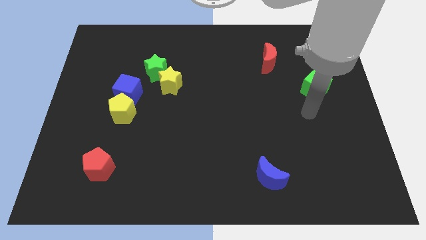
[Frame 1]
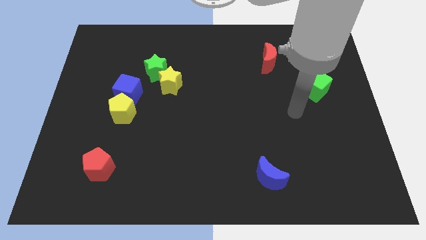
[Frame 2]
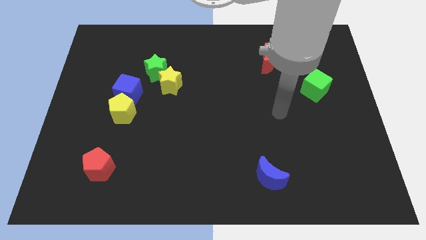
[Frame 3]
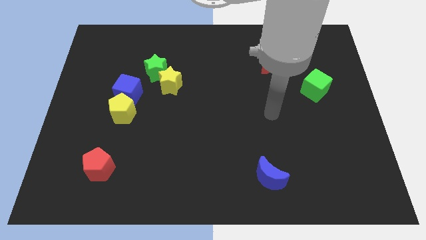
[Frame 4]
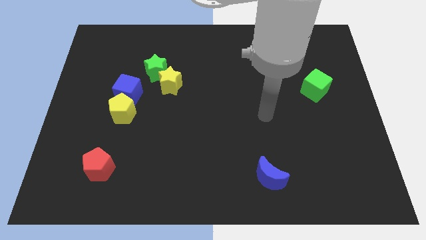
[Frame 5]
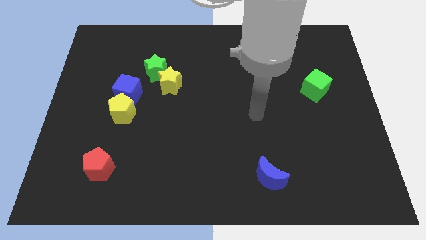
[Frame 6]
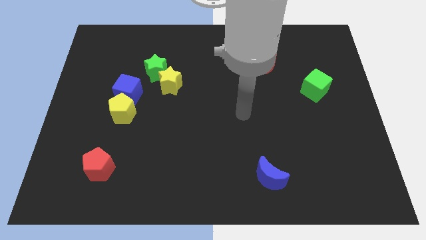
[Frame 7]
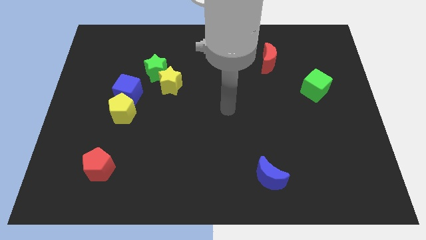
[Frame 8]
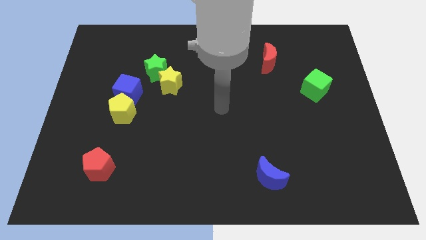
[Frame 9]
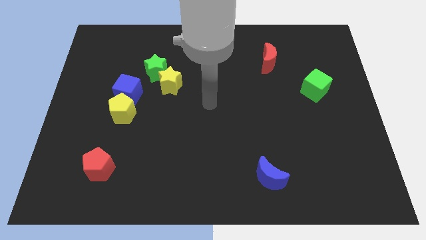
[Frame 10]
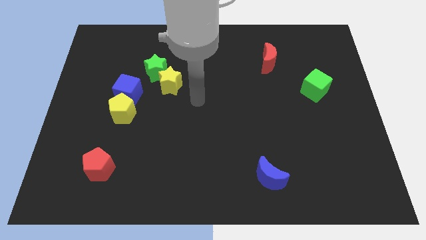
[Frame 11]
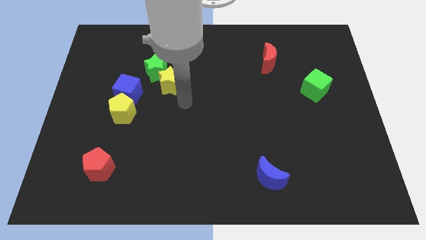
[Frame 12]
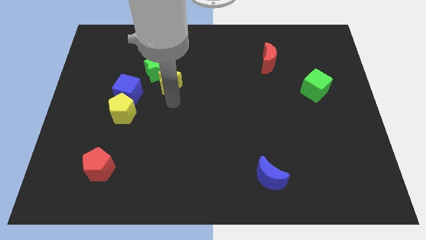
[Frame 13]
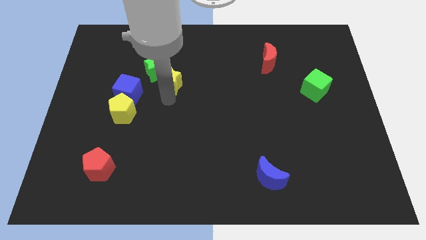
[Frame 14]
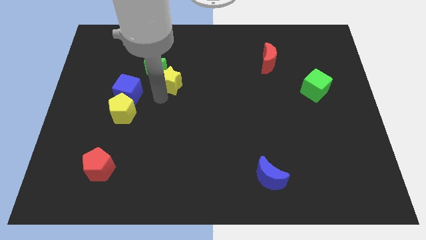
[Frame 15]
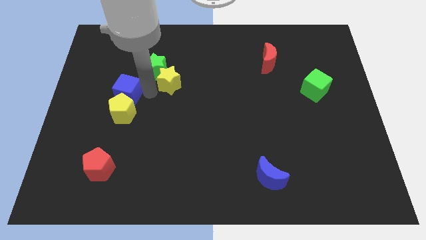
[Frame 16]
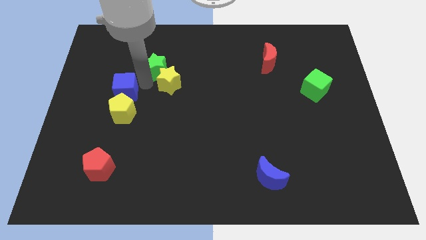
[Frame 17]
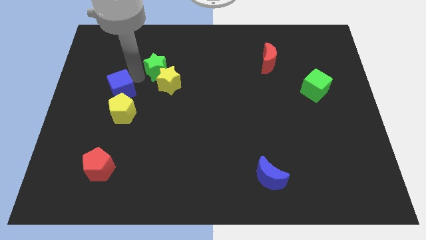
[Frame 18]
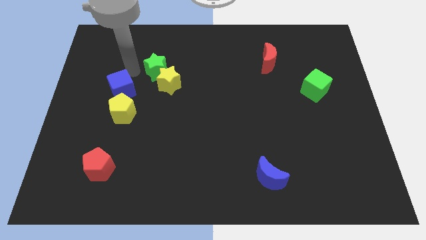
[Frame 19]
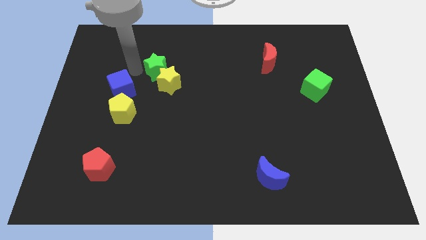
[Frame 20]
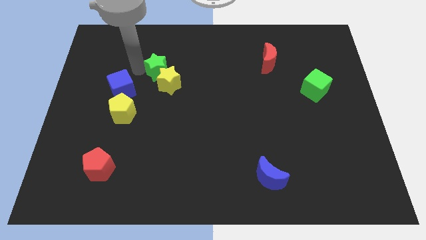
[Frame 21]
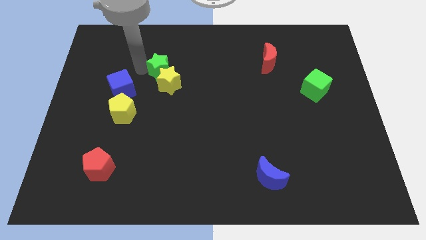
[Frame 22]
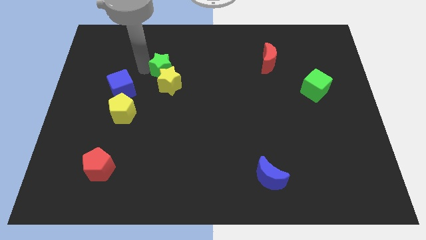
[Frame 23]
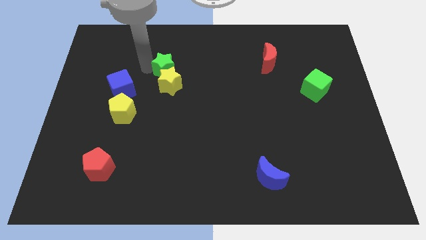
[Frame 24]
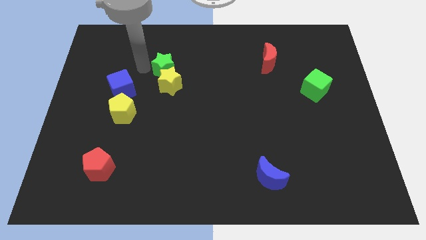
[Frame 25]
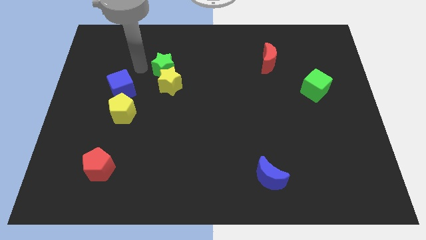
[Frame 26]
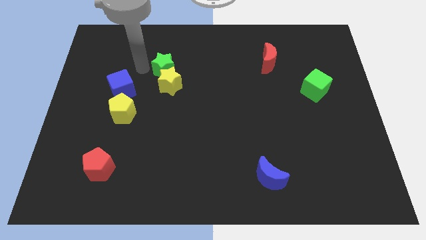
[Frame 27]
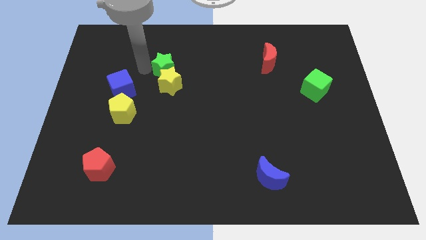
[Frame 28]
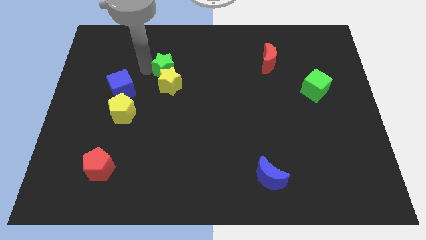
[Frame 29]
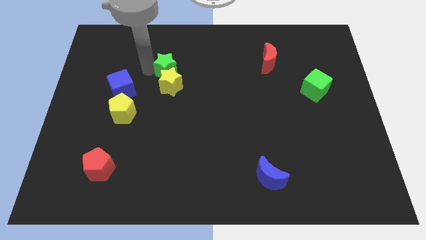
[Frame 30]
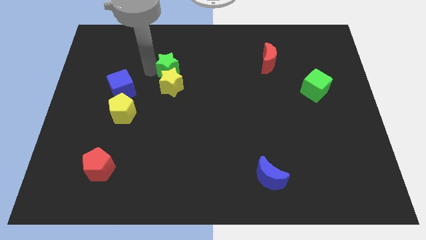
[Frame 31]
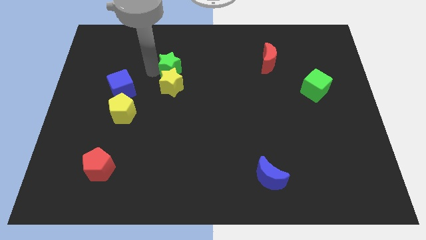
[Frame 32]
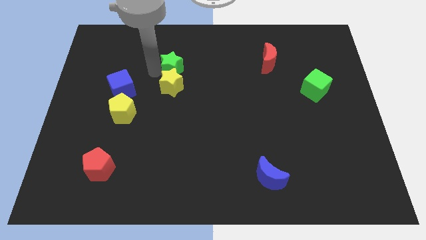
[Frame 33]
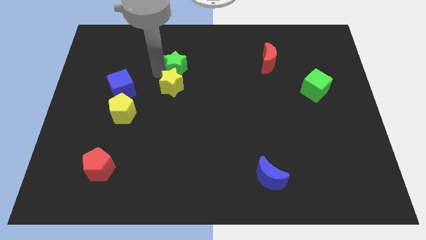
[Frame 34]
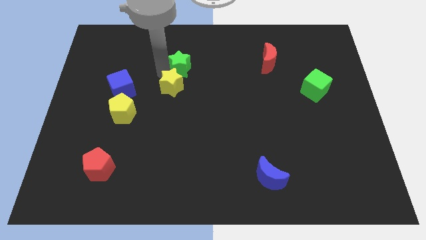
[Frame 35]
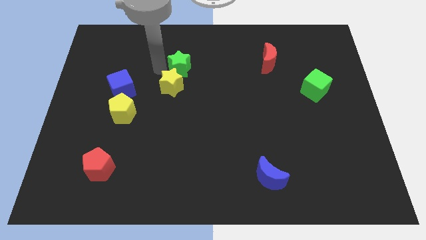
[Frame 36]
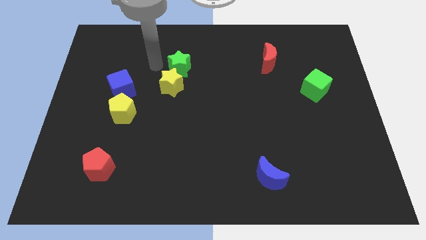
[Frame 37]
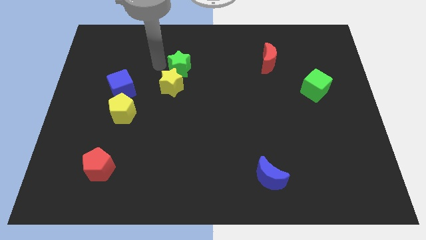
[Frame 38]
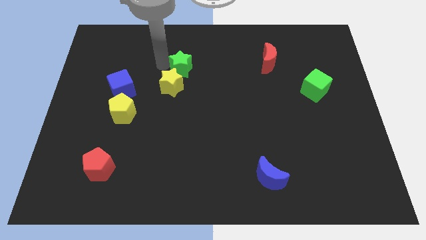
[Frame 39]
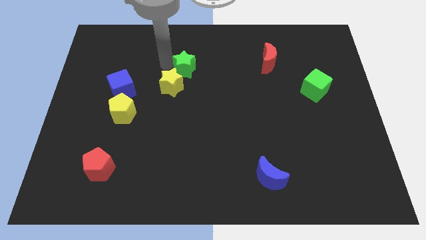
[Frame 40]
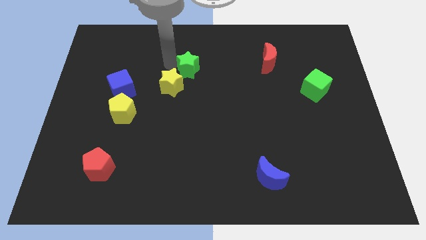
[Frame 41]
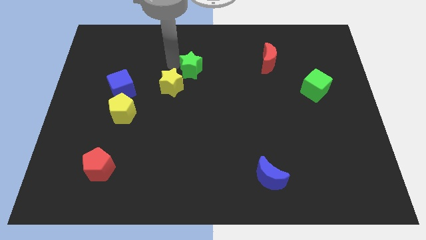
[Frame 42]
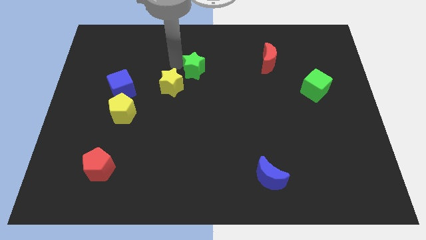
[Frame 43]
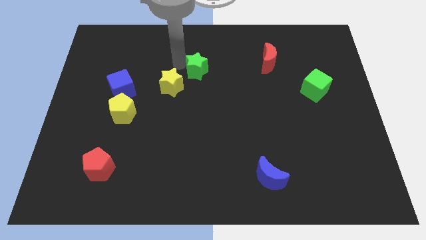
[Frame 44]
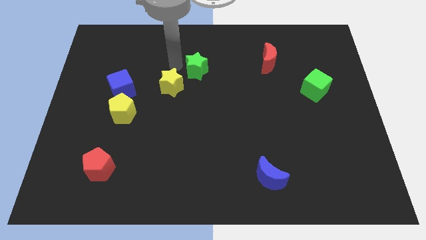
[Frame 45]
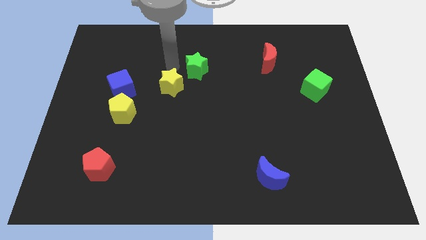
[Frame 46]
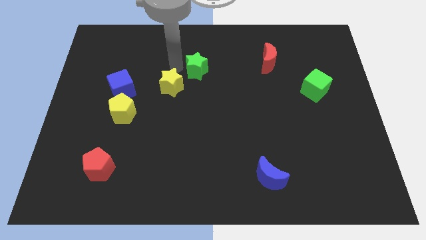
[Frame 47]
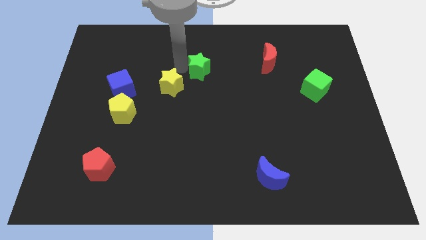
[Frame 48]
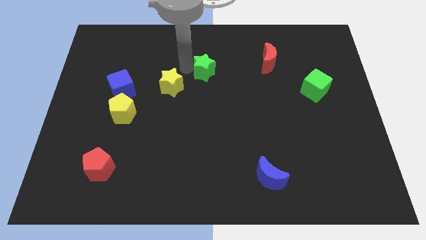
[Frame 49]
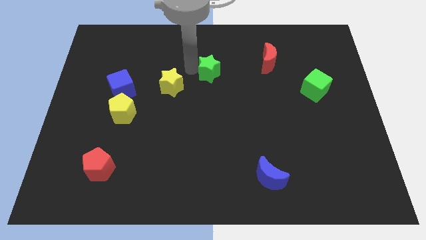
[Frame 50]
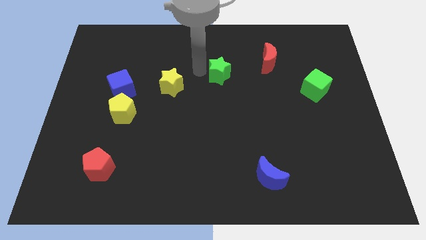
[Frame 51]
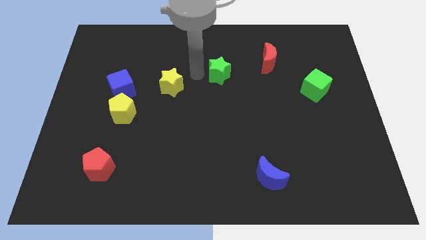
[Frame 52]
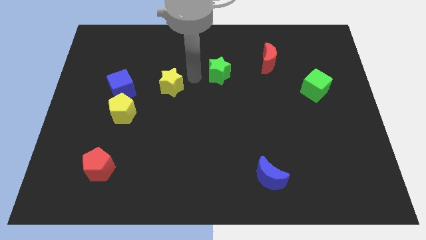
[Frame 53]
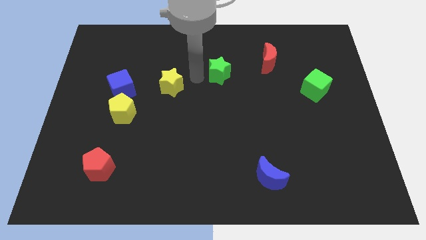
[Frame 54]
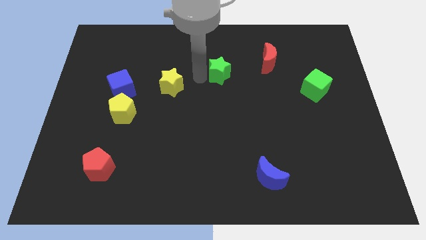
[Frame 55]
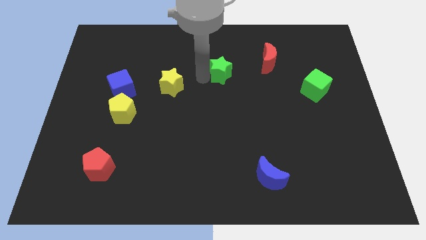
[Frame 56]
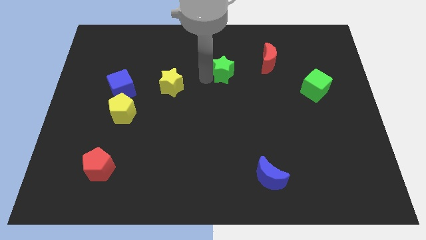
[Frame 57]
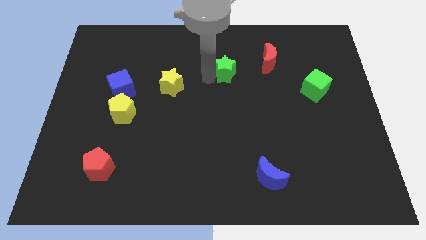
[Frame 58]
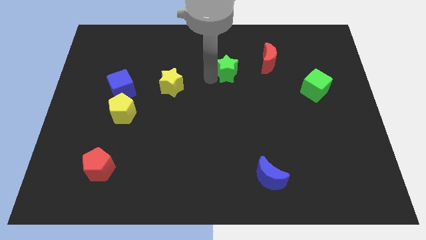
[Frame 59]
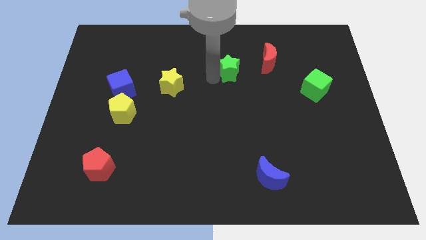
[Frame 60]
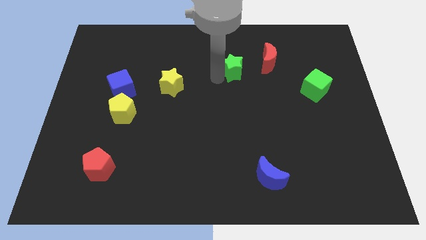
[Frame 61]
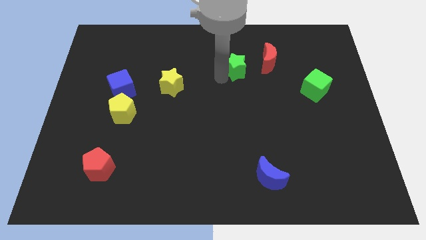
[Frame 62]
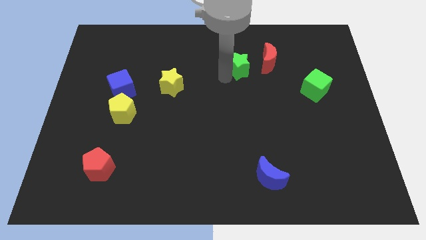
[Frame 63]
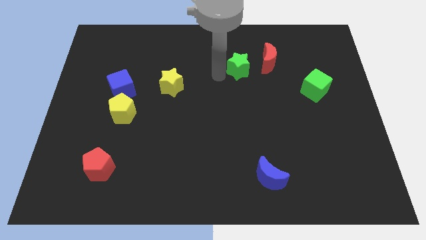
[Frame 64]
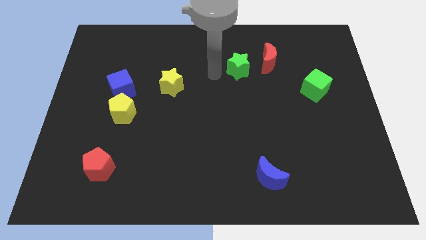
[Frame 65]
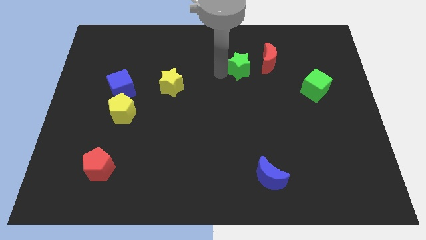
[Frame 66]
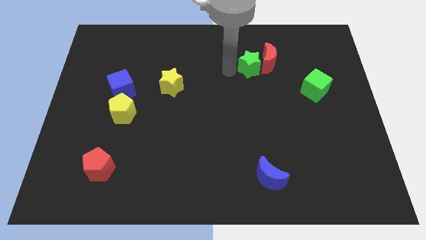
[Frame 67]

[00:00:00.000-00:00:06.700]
push the green star next to the red moon

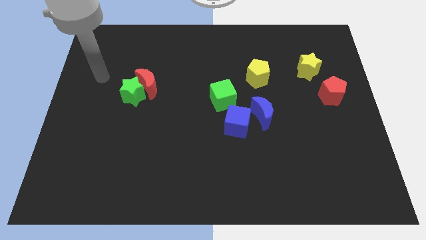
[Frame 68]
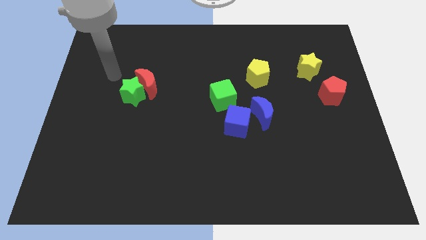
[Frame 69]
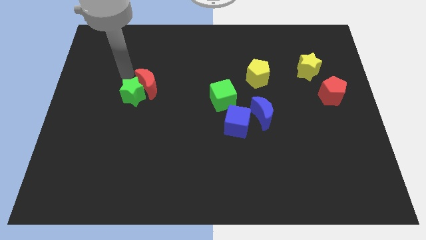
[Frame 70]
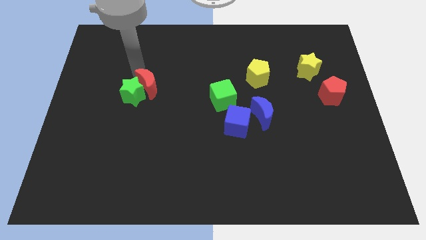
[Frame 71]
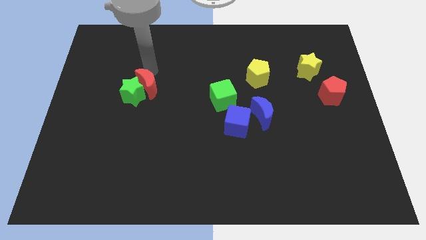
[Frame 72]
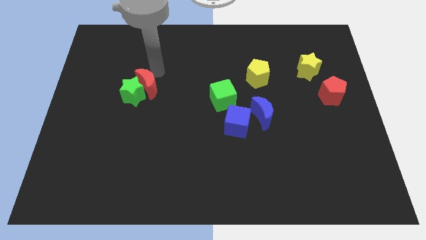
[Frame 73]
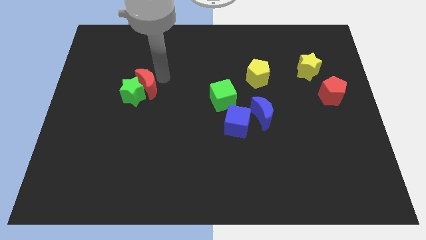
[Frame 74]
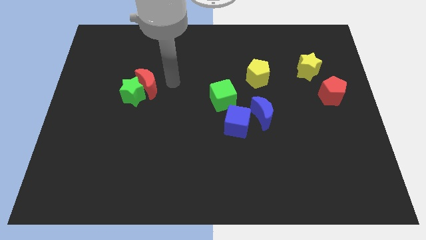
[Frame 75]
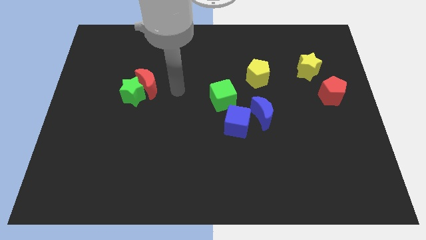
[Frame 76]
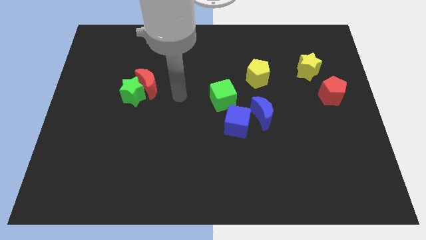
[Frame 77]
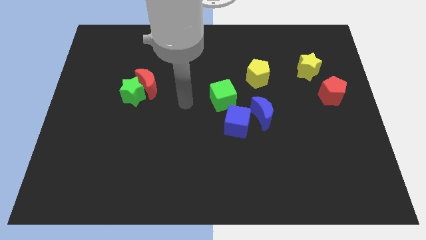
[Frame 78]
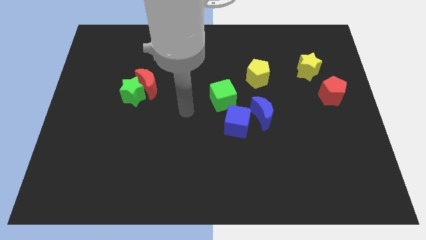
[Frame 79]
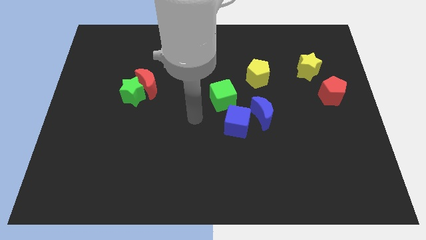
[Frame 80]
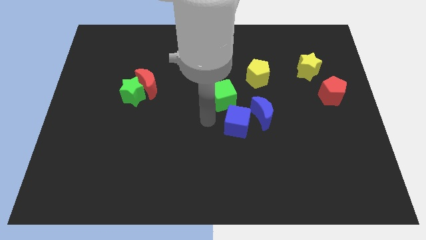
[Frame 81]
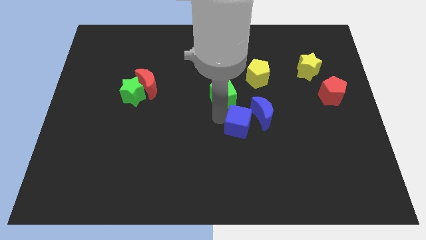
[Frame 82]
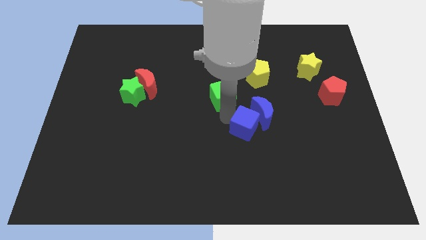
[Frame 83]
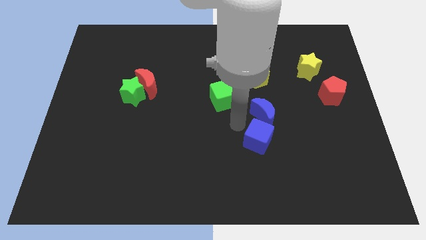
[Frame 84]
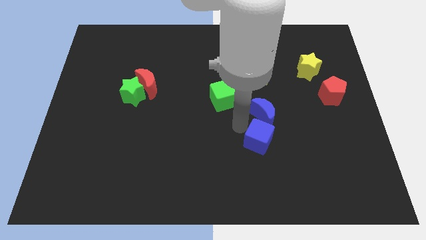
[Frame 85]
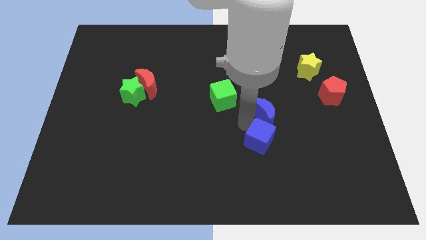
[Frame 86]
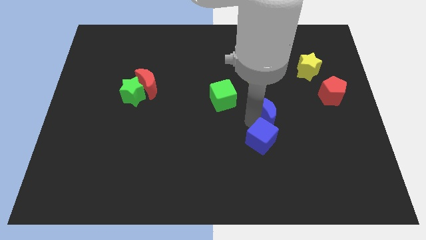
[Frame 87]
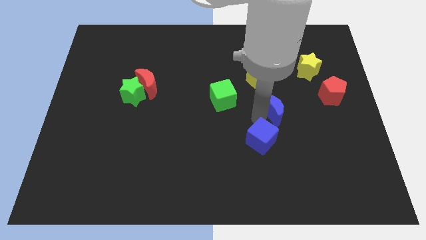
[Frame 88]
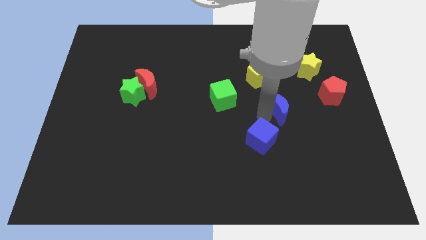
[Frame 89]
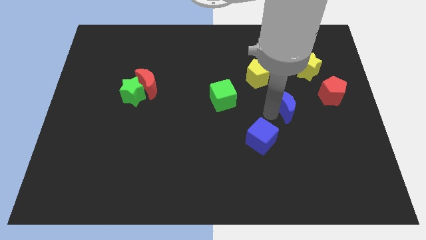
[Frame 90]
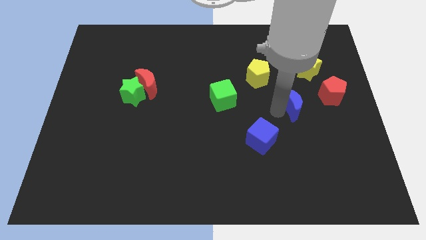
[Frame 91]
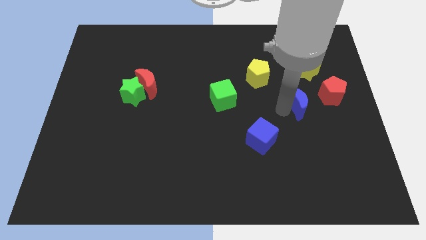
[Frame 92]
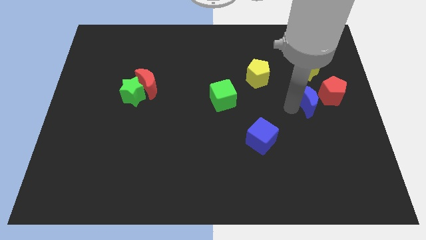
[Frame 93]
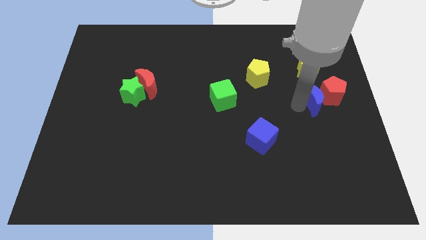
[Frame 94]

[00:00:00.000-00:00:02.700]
put the blue moon towards the red pentagon
